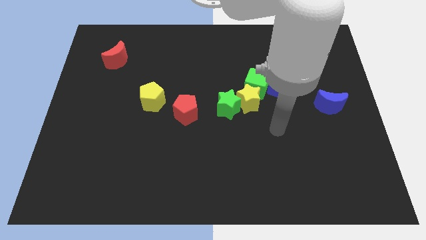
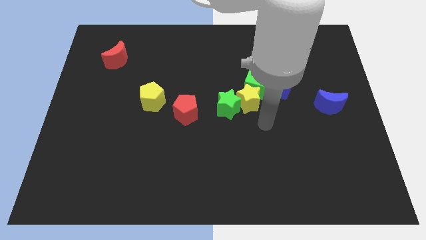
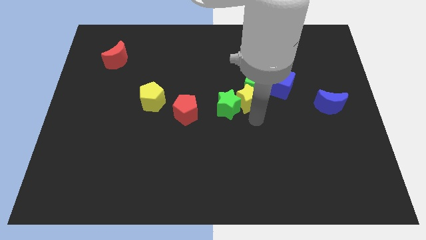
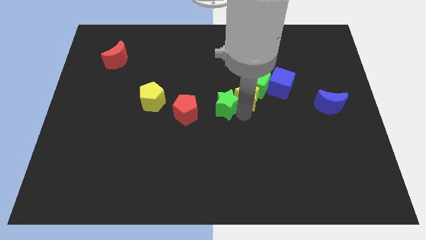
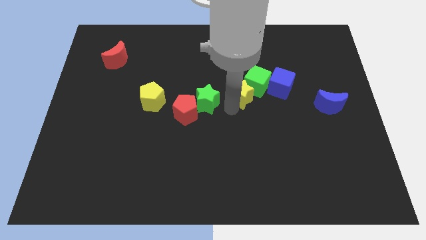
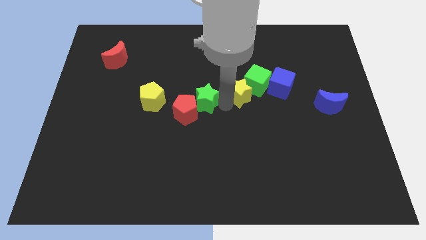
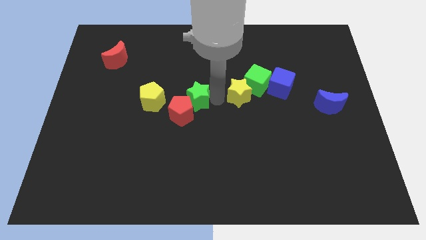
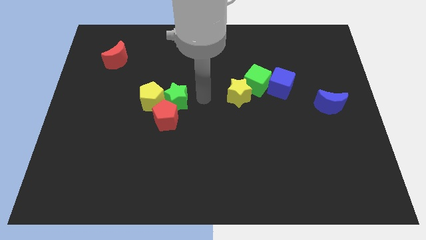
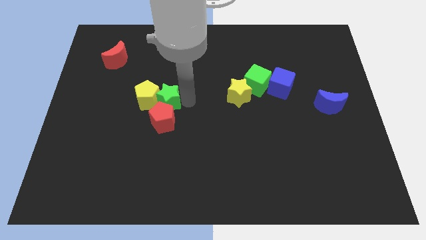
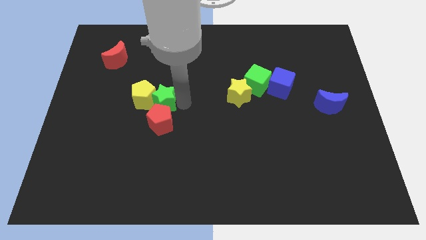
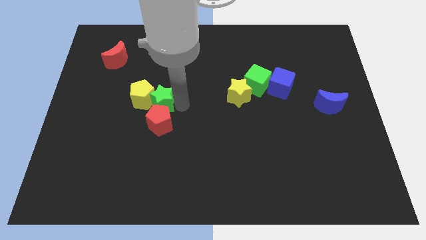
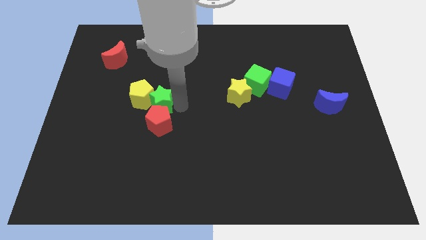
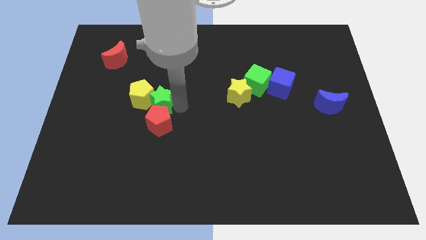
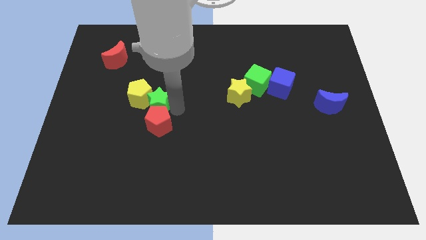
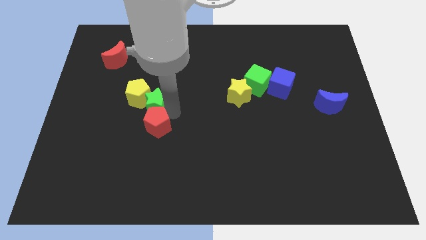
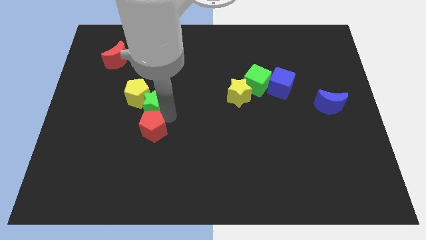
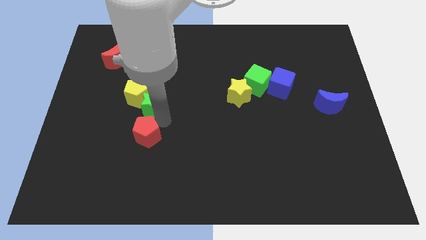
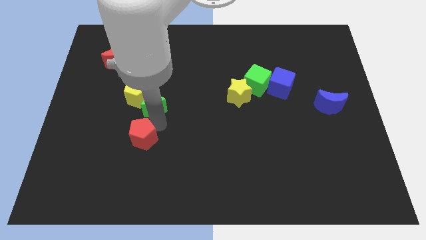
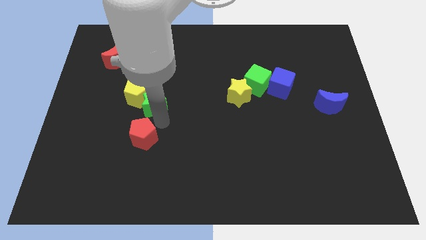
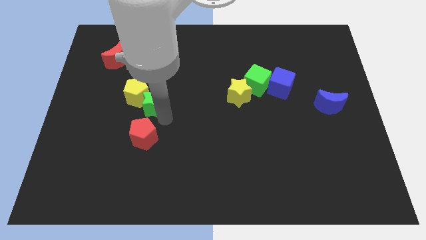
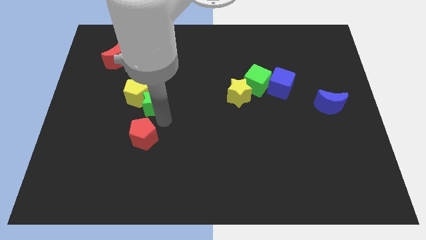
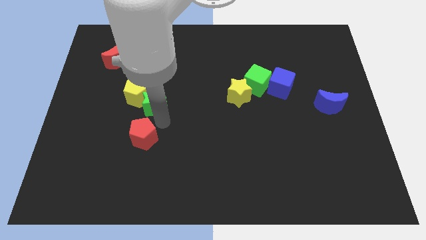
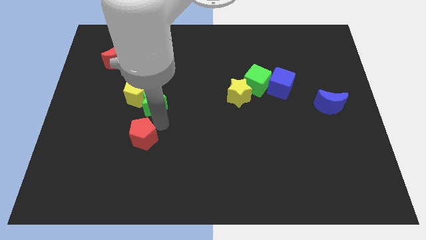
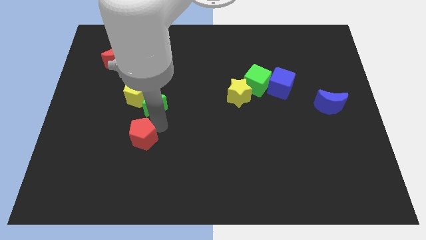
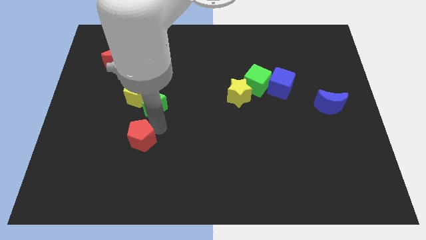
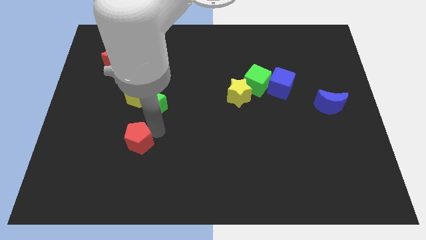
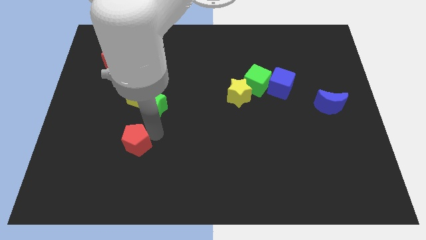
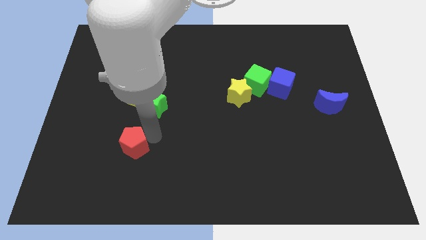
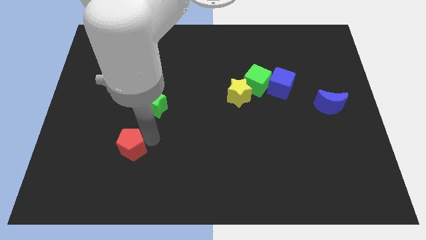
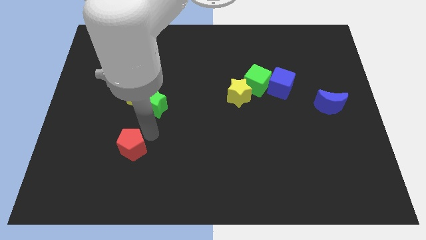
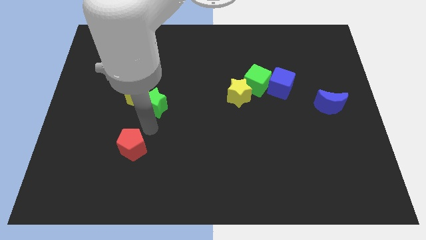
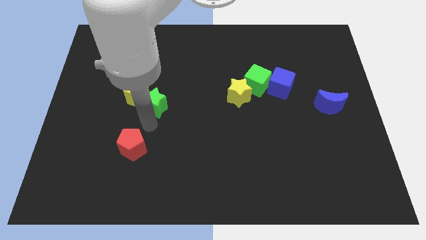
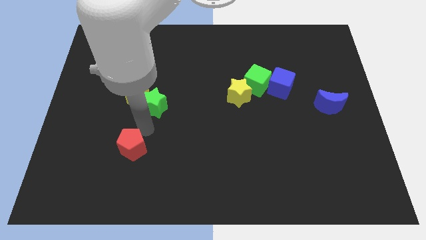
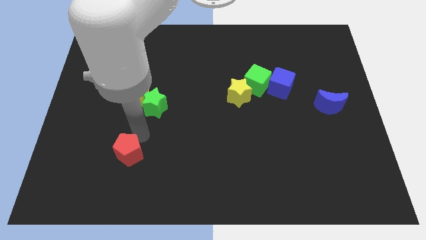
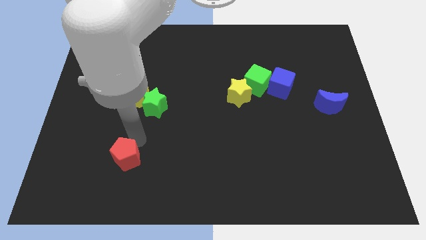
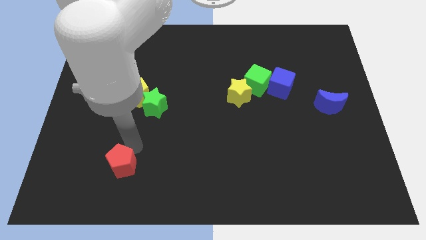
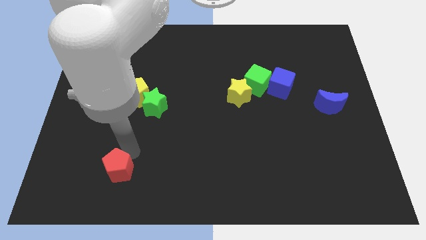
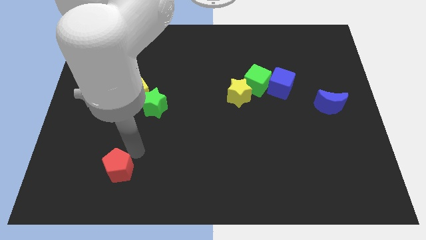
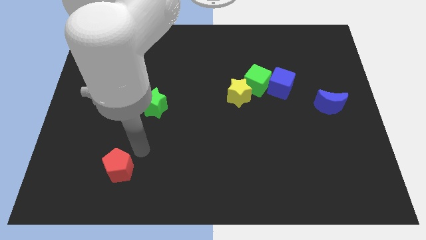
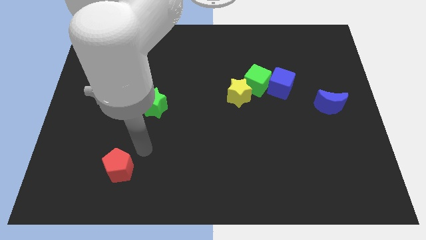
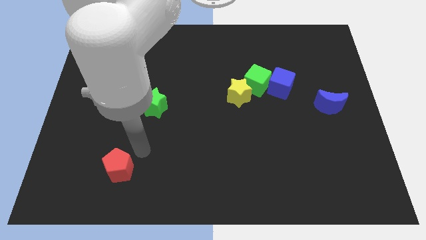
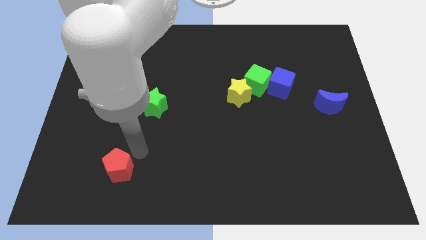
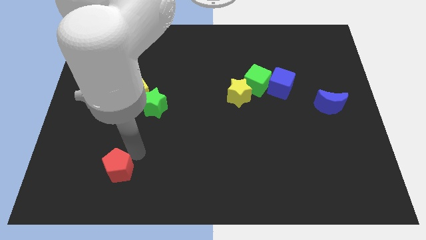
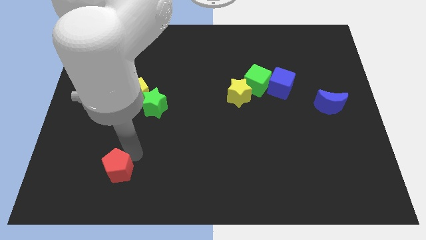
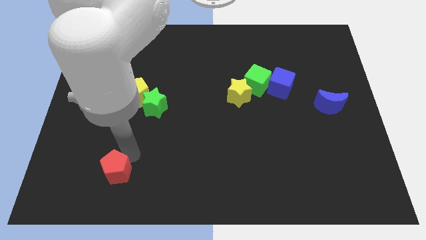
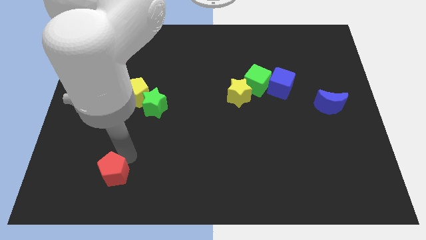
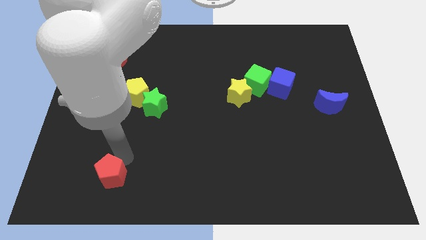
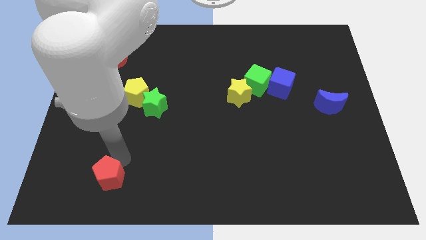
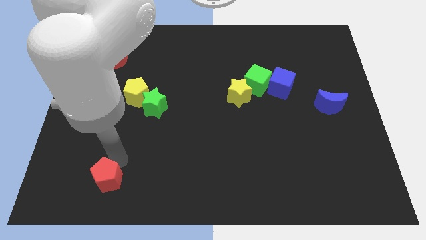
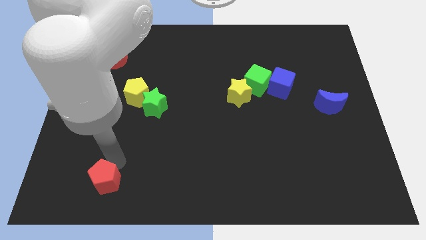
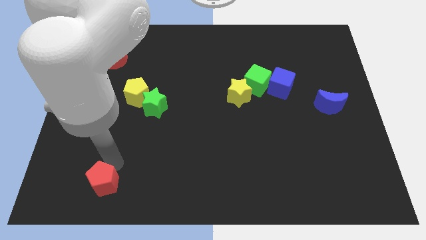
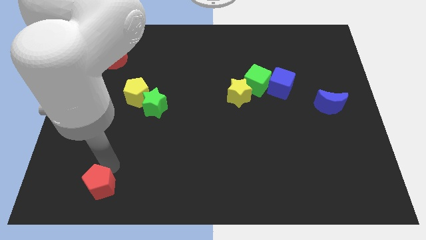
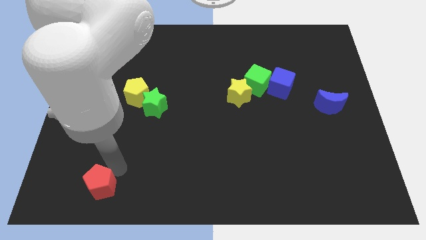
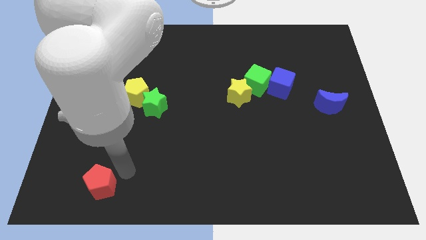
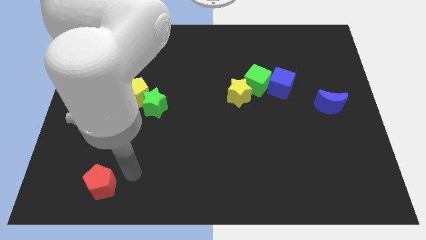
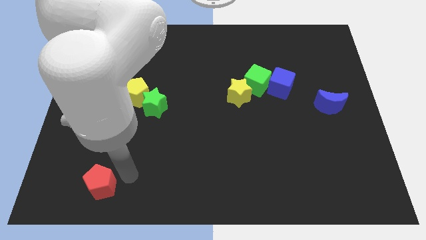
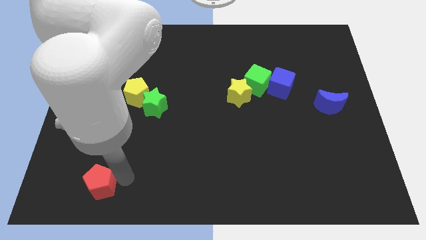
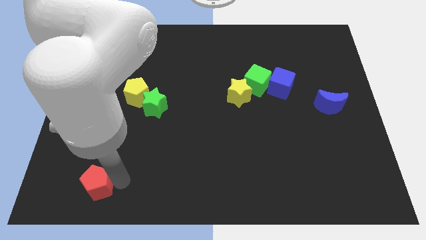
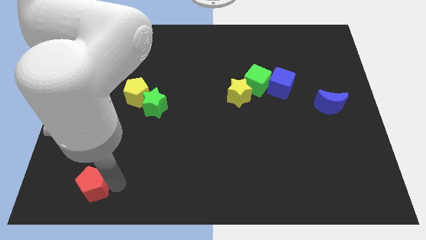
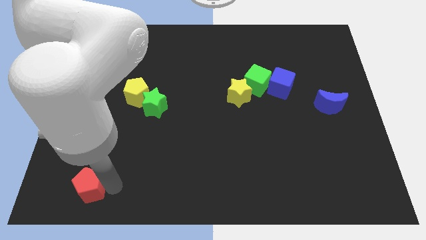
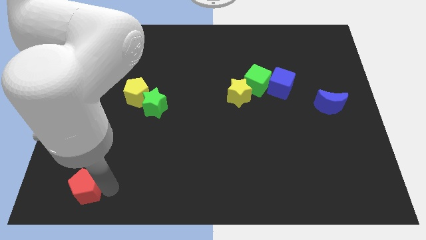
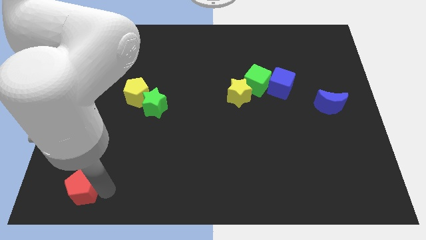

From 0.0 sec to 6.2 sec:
put the red pentagon to the bottom left of the board

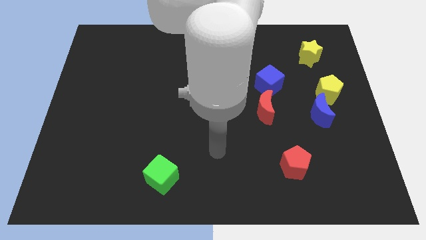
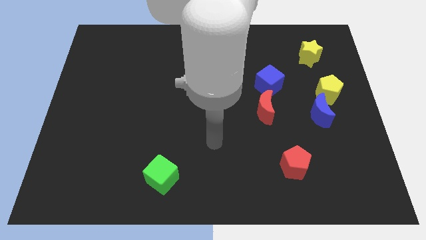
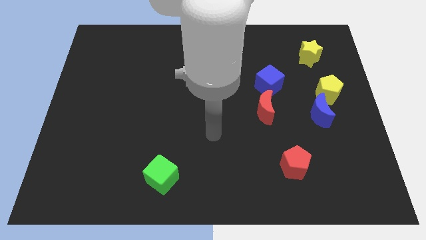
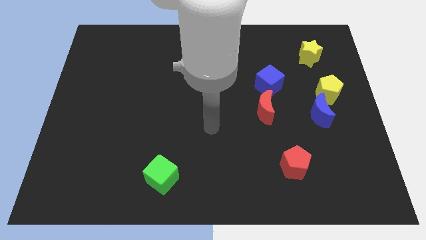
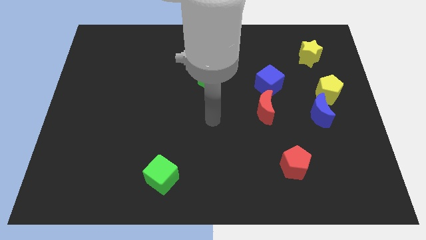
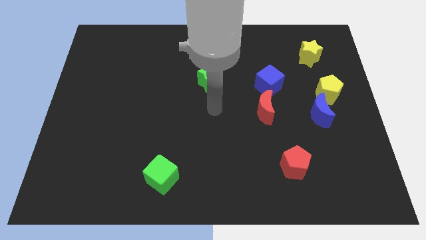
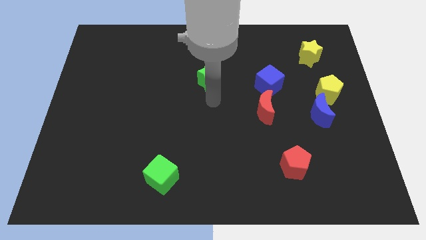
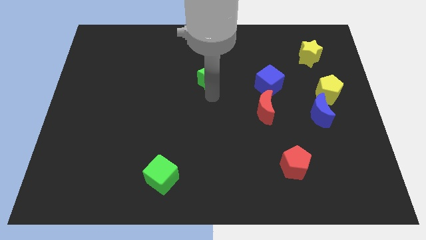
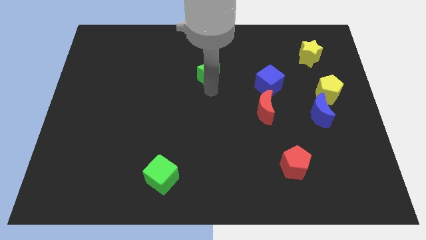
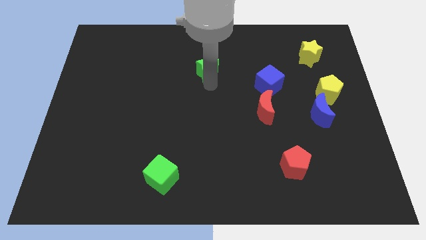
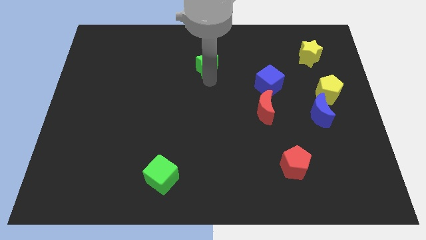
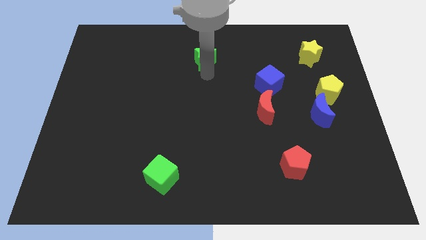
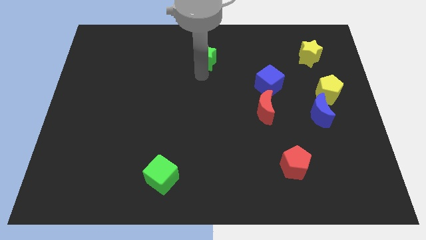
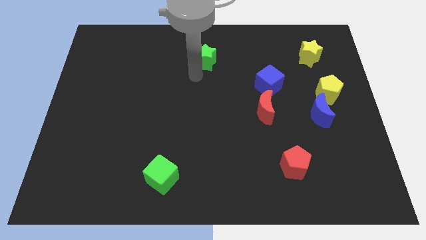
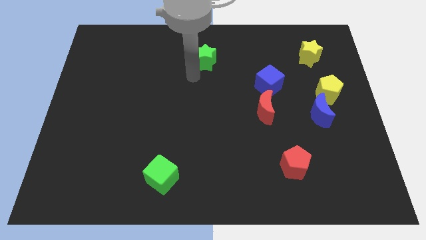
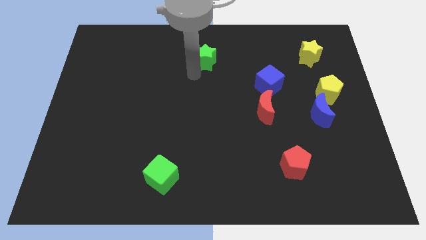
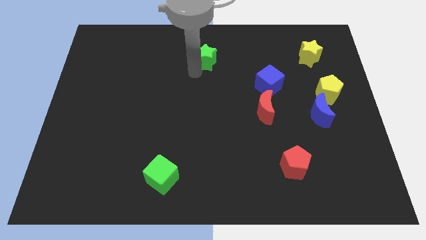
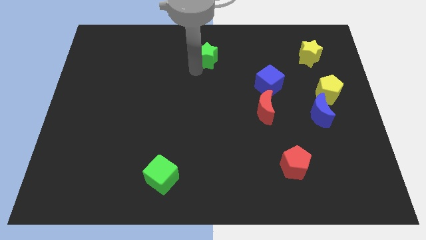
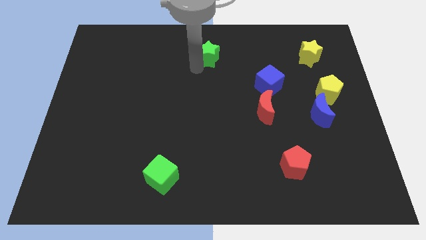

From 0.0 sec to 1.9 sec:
slide the green star to the top side
